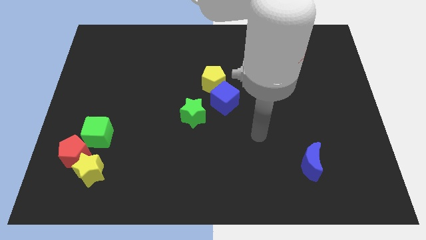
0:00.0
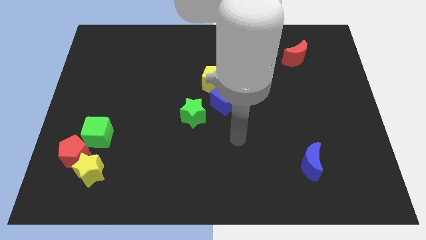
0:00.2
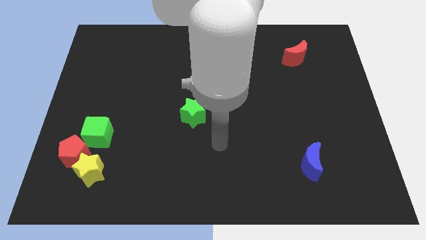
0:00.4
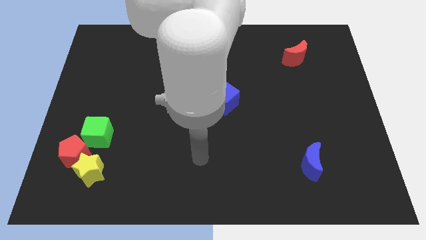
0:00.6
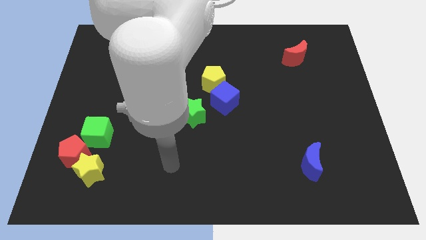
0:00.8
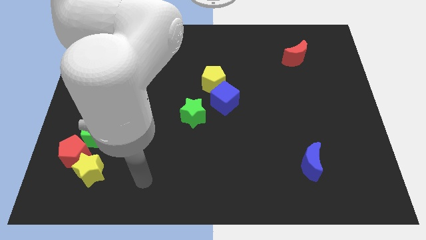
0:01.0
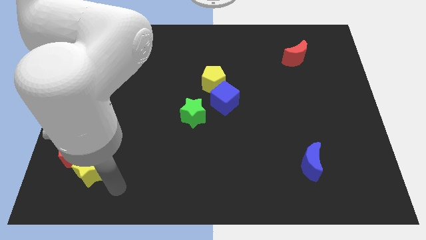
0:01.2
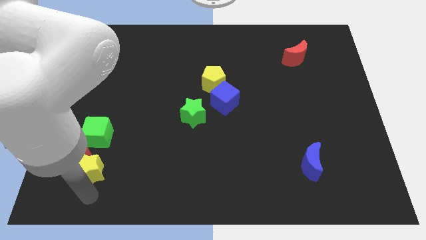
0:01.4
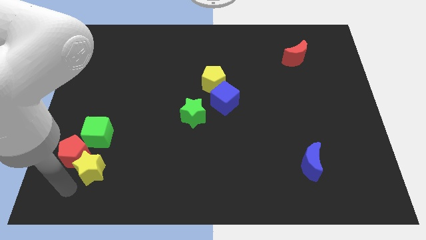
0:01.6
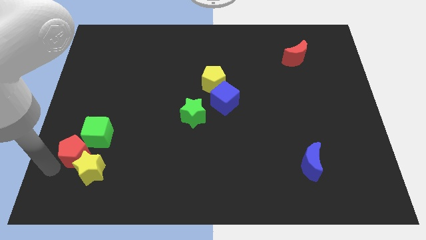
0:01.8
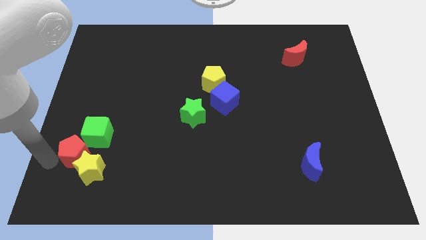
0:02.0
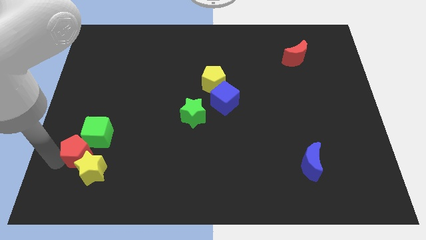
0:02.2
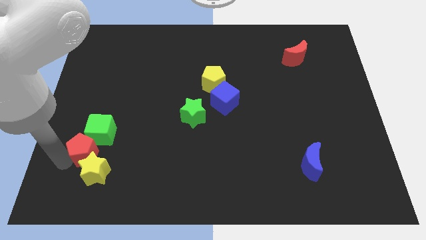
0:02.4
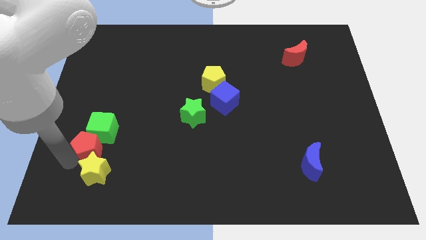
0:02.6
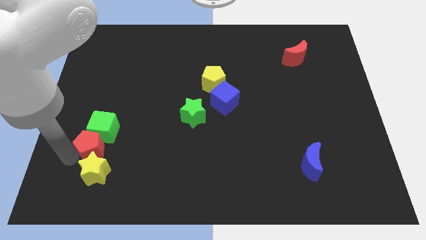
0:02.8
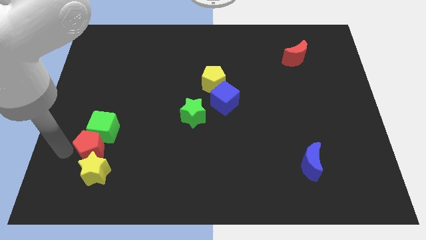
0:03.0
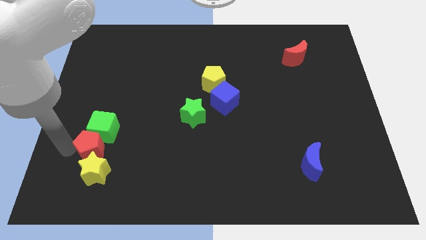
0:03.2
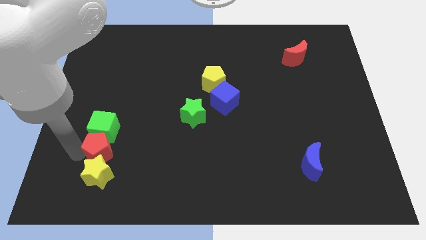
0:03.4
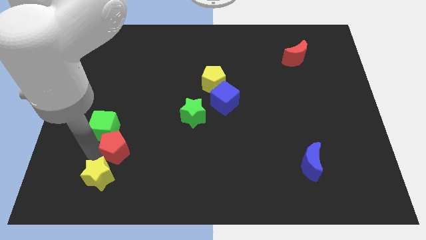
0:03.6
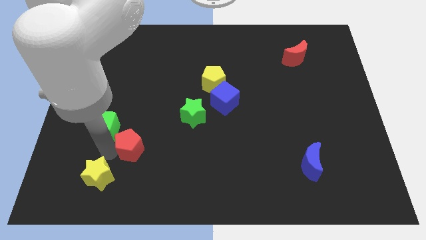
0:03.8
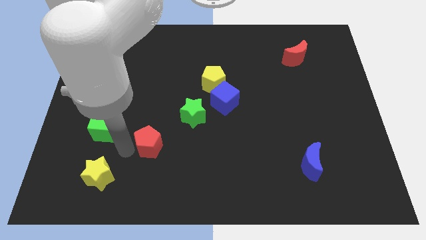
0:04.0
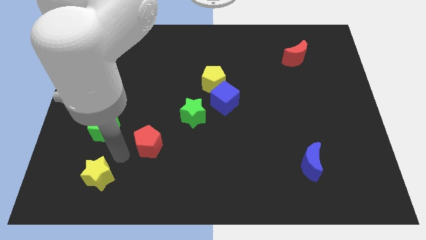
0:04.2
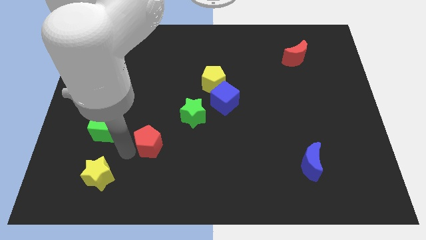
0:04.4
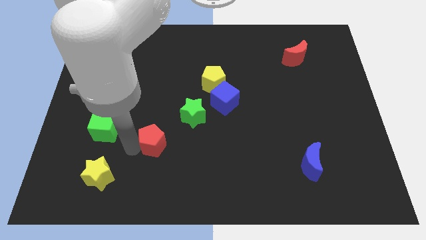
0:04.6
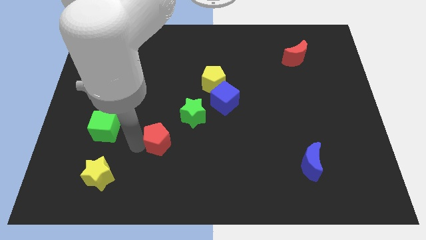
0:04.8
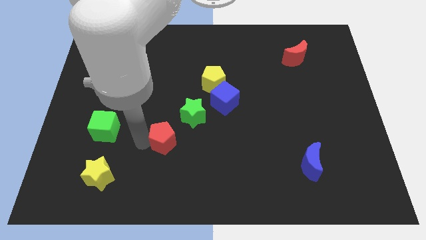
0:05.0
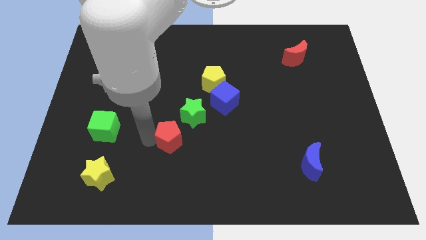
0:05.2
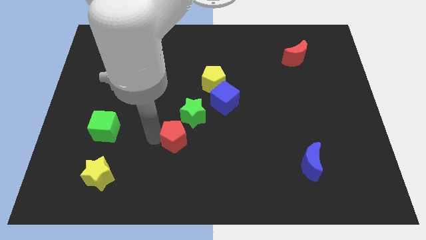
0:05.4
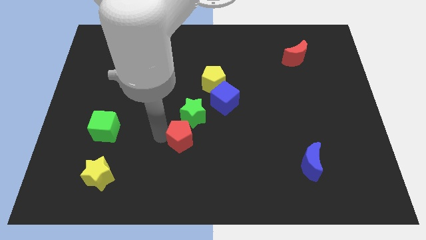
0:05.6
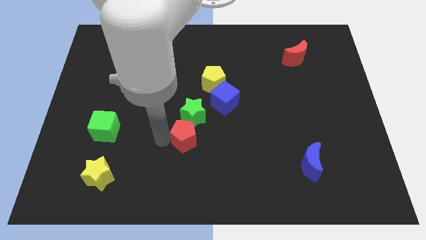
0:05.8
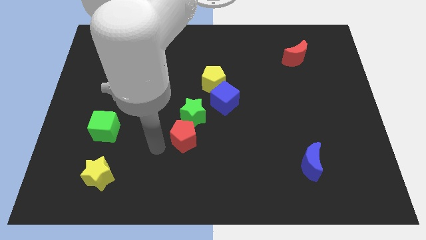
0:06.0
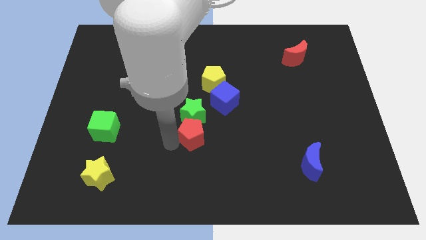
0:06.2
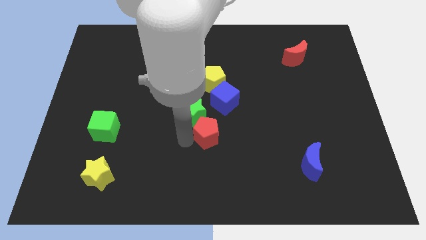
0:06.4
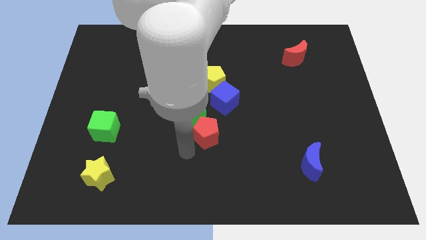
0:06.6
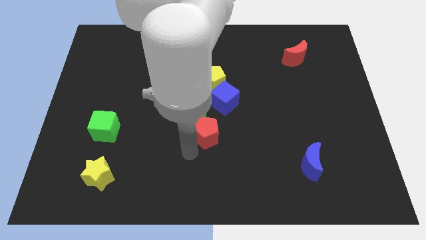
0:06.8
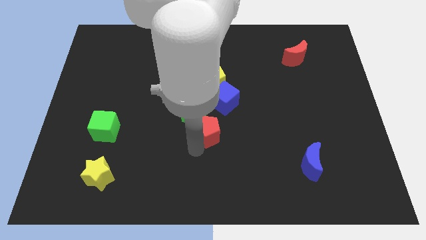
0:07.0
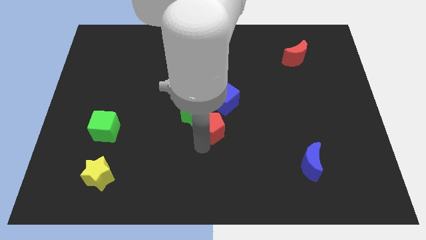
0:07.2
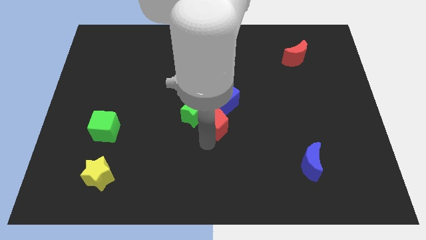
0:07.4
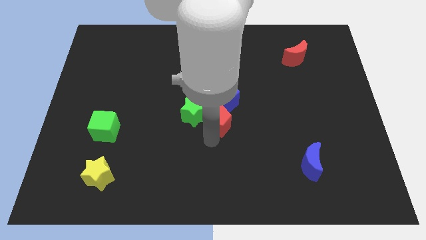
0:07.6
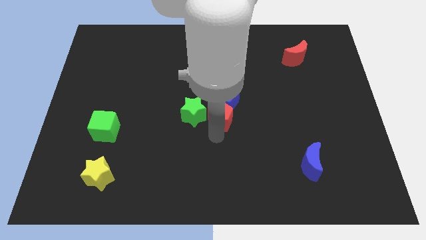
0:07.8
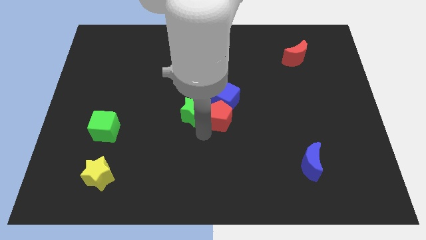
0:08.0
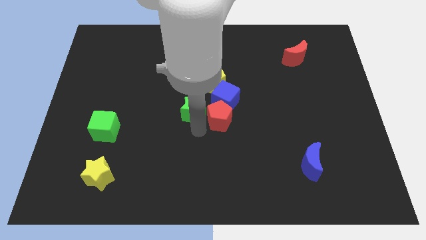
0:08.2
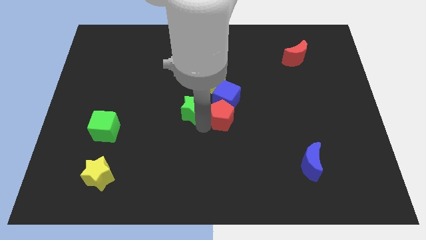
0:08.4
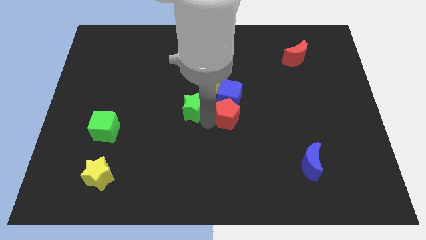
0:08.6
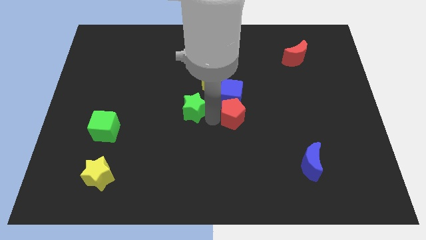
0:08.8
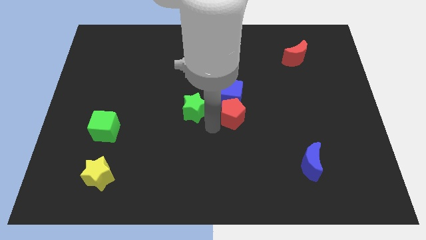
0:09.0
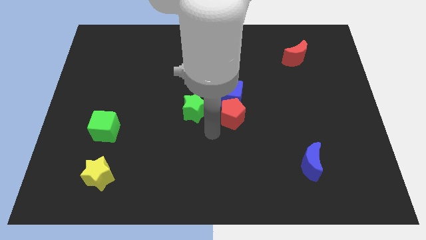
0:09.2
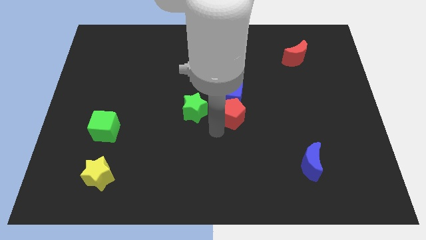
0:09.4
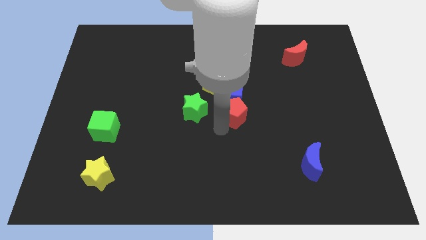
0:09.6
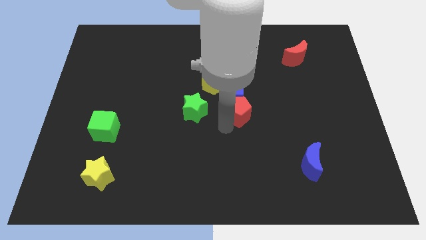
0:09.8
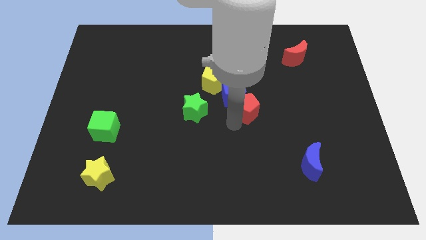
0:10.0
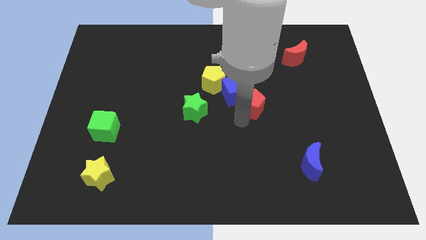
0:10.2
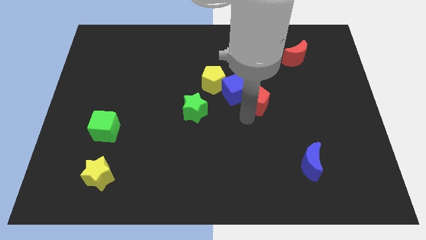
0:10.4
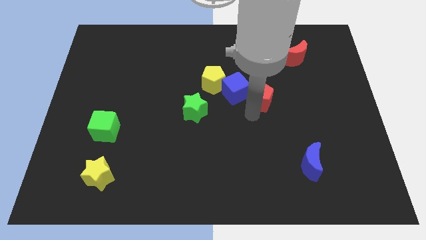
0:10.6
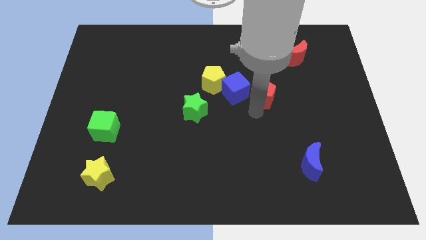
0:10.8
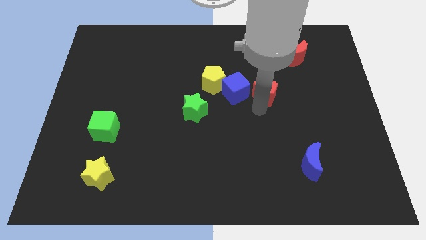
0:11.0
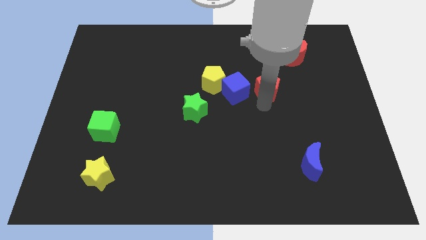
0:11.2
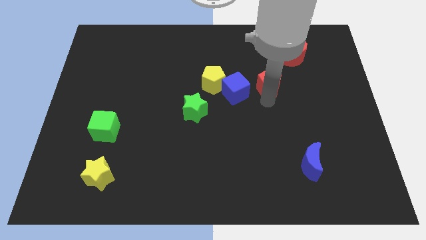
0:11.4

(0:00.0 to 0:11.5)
move the red pentagon to the bottom left side of the red moon

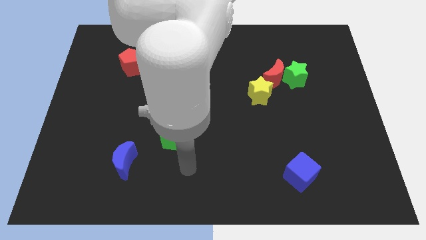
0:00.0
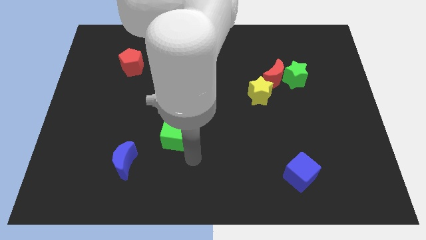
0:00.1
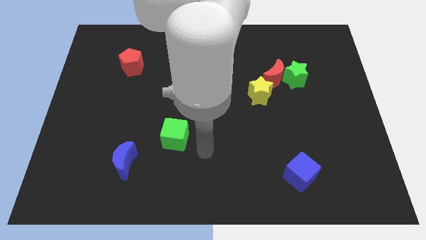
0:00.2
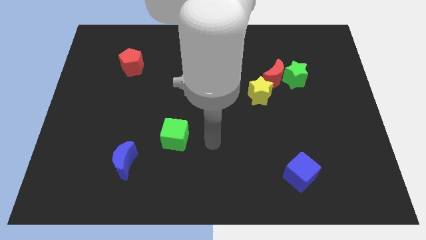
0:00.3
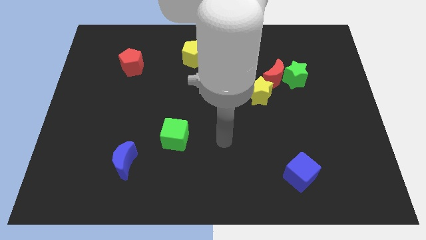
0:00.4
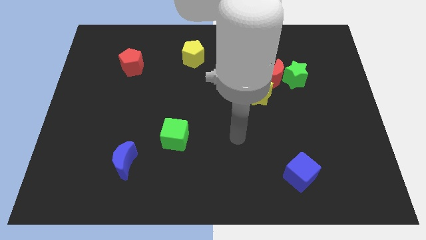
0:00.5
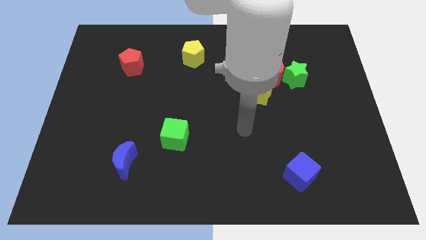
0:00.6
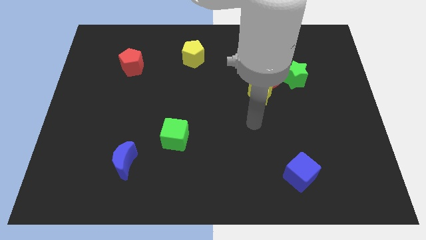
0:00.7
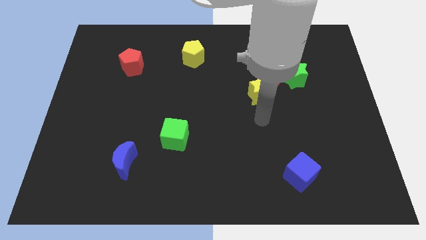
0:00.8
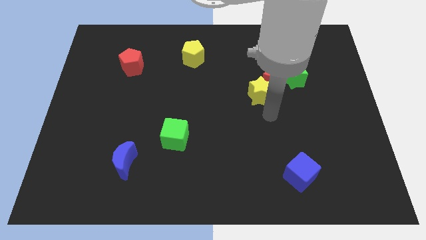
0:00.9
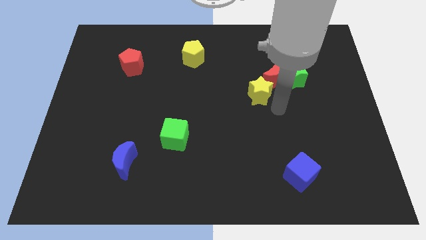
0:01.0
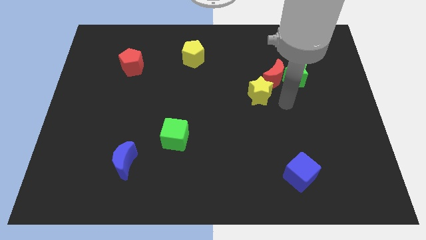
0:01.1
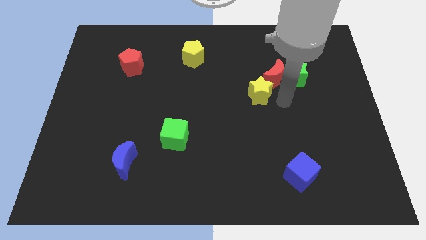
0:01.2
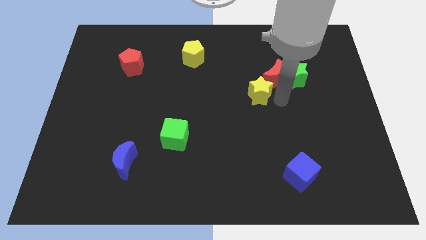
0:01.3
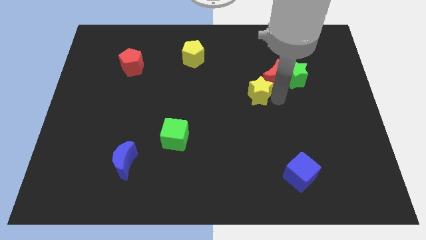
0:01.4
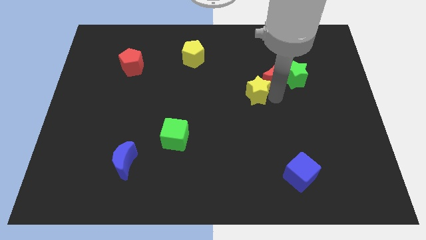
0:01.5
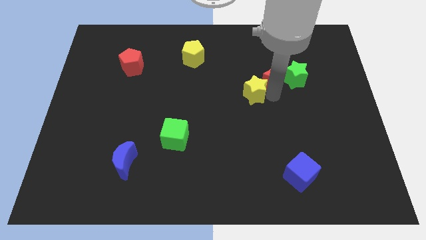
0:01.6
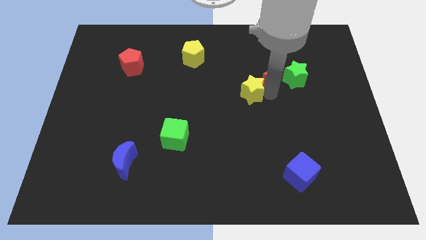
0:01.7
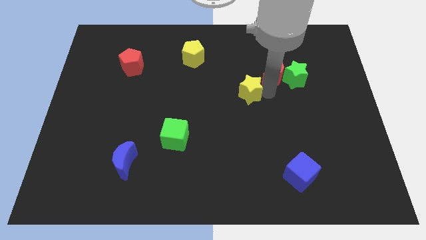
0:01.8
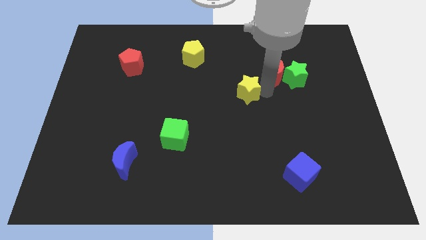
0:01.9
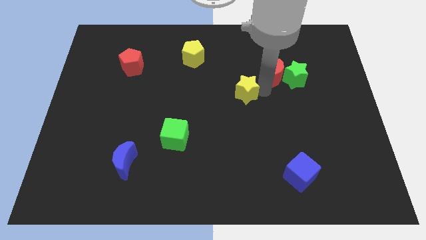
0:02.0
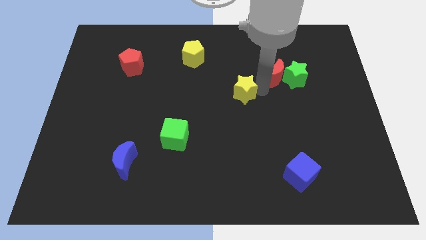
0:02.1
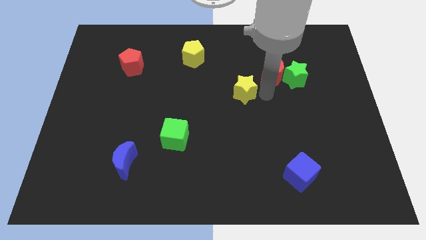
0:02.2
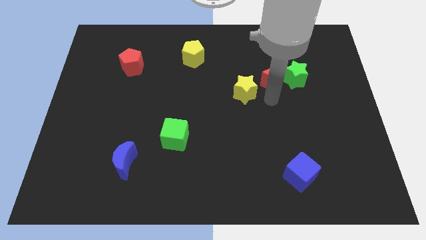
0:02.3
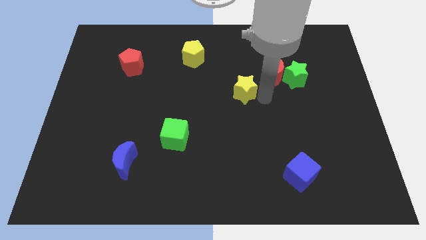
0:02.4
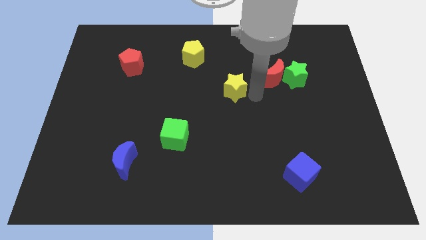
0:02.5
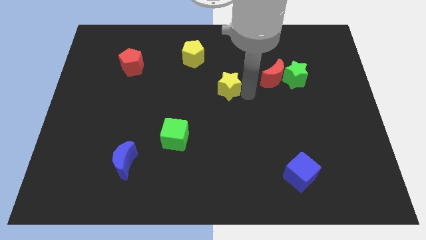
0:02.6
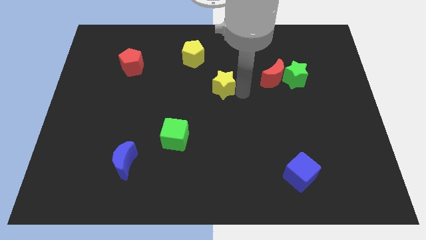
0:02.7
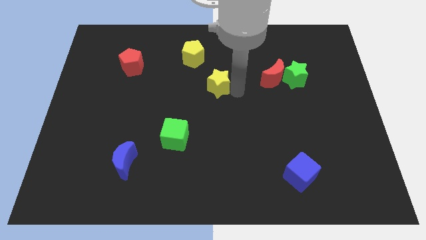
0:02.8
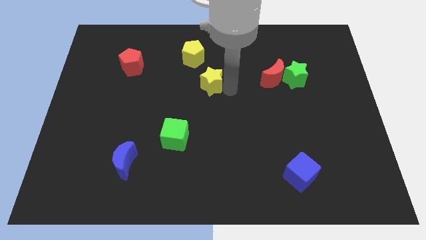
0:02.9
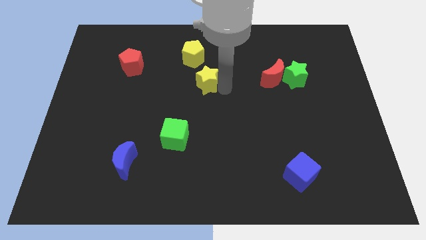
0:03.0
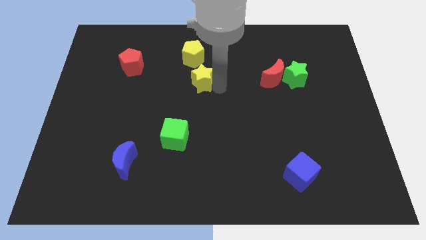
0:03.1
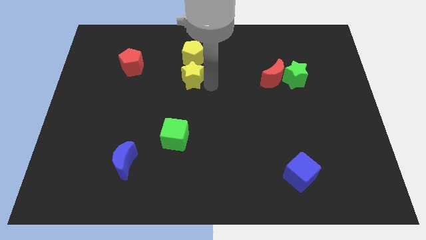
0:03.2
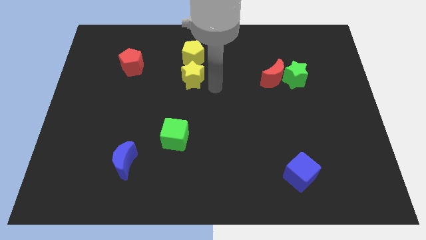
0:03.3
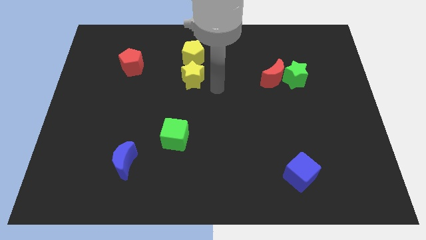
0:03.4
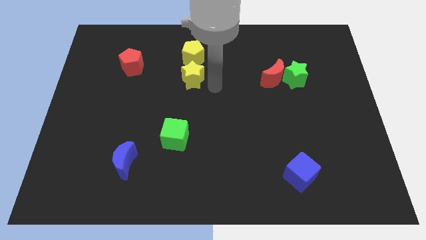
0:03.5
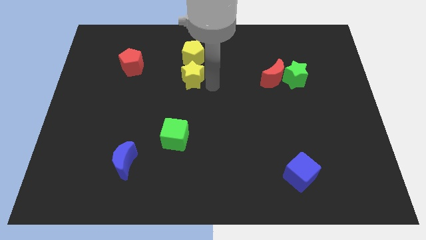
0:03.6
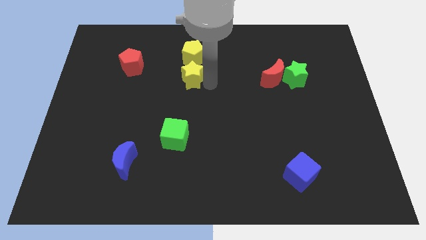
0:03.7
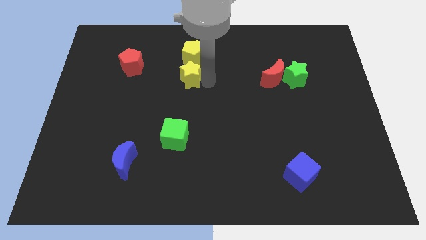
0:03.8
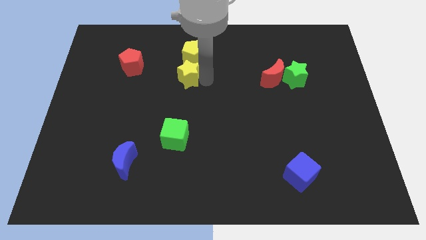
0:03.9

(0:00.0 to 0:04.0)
push the yellow star to the bottom left of the yellow pentagon
